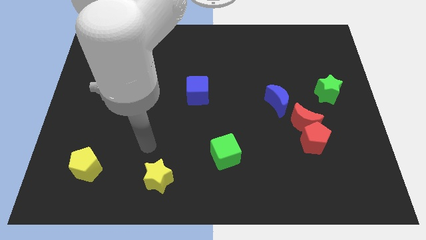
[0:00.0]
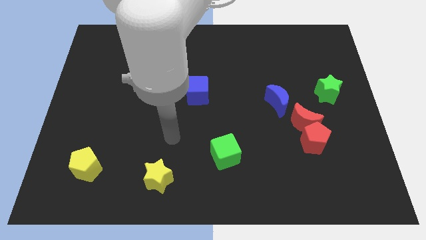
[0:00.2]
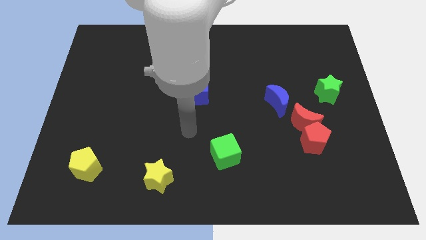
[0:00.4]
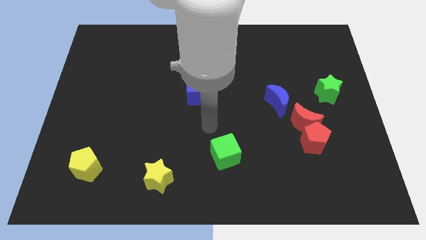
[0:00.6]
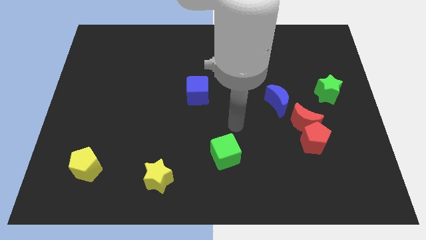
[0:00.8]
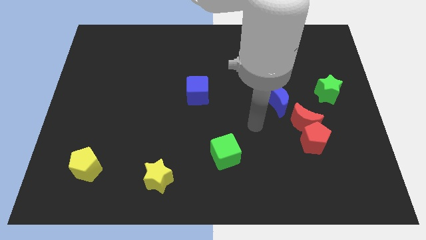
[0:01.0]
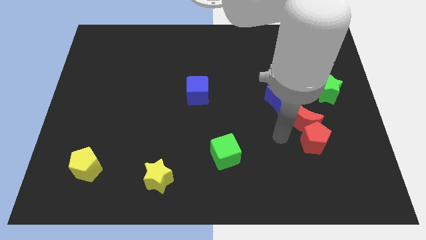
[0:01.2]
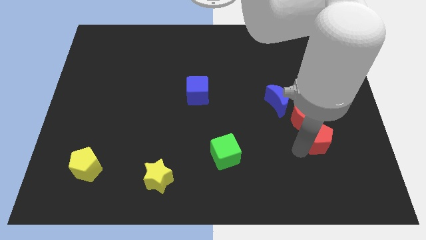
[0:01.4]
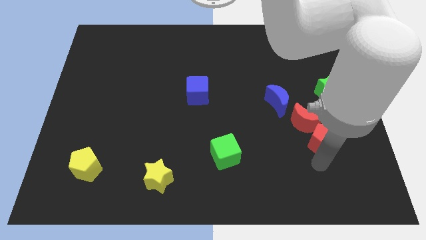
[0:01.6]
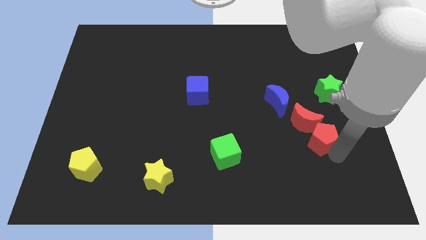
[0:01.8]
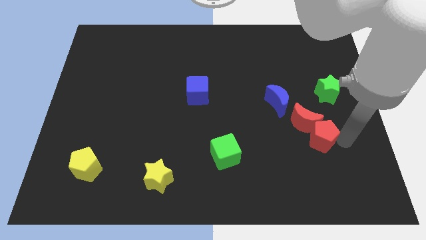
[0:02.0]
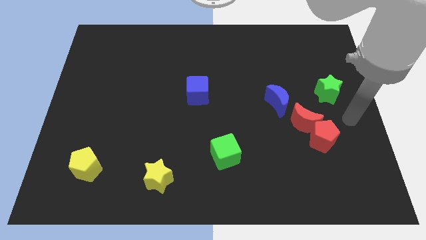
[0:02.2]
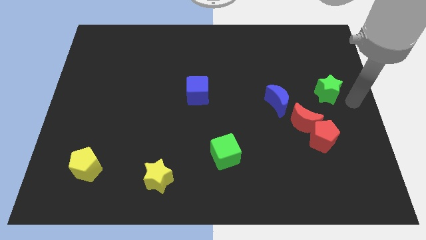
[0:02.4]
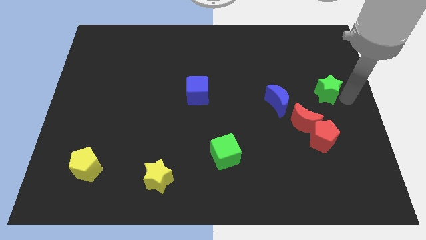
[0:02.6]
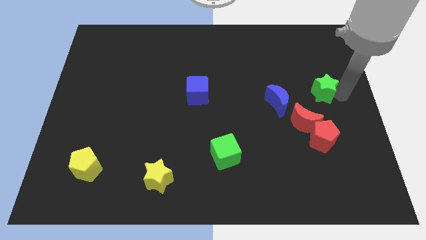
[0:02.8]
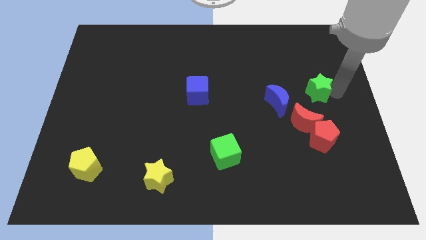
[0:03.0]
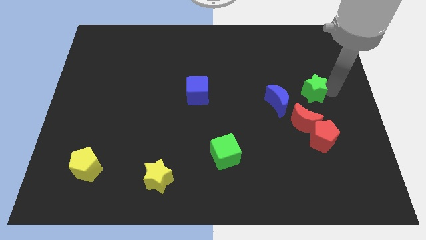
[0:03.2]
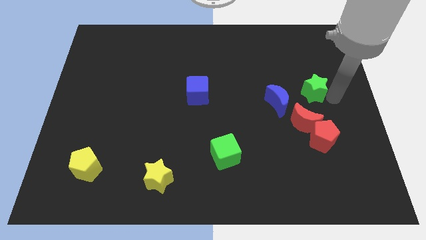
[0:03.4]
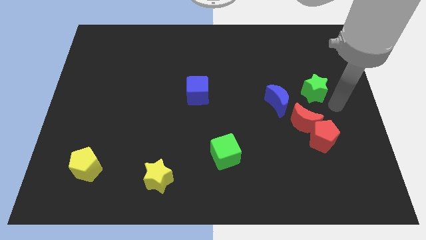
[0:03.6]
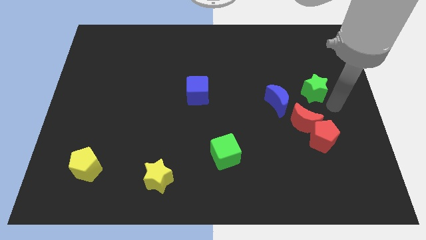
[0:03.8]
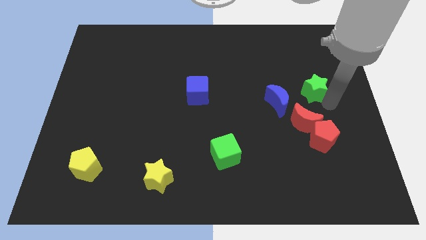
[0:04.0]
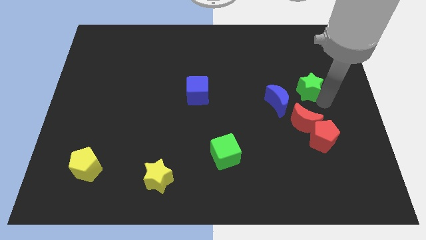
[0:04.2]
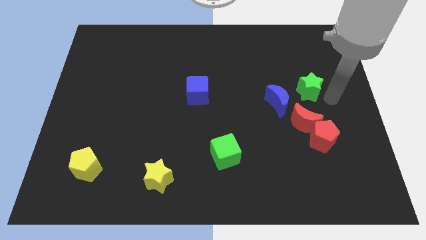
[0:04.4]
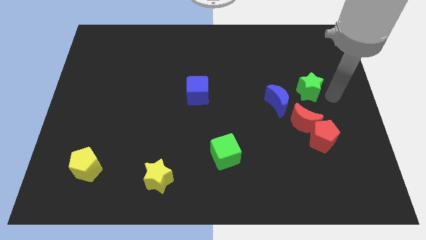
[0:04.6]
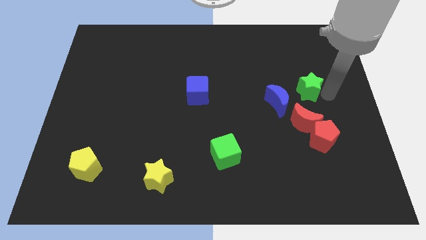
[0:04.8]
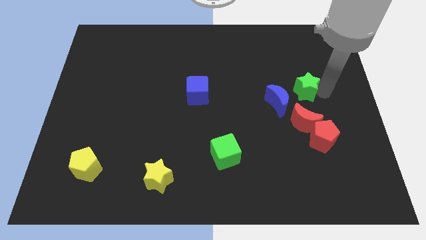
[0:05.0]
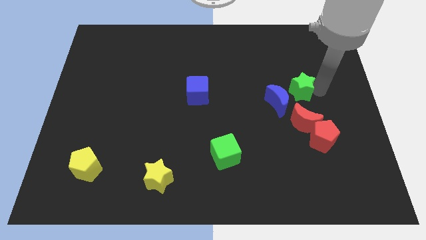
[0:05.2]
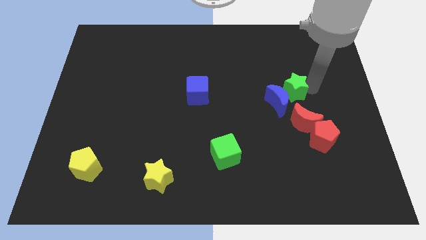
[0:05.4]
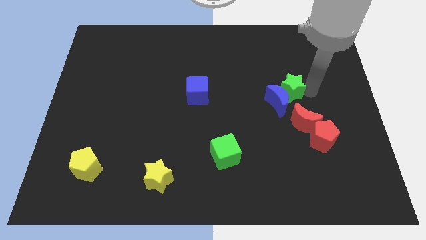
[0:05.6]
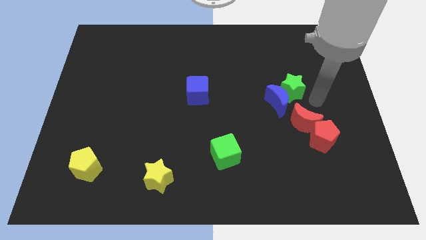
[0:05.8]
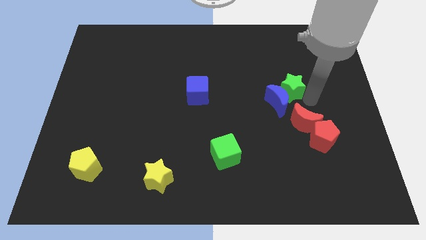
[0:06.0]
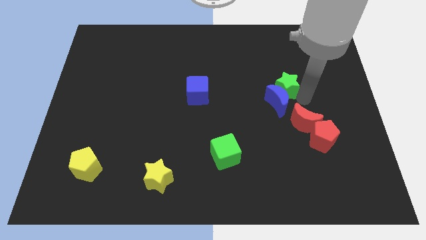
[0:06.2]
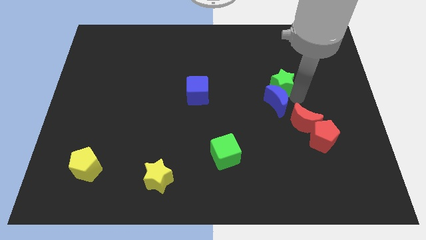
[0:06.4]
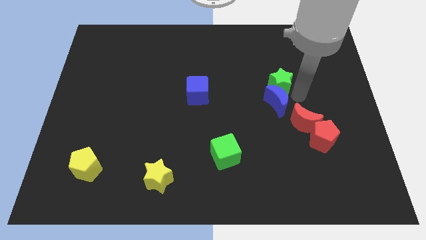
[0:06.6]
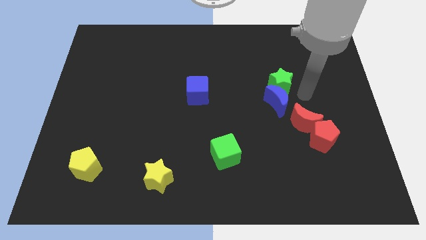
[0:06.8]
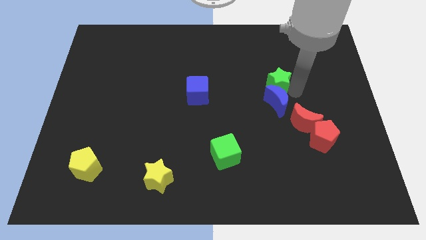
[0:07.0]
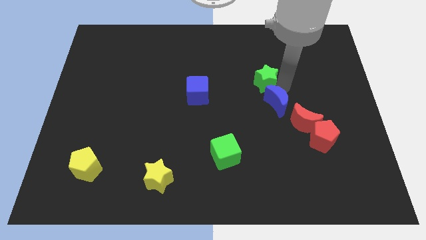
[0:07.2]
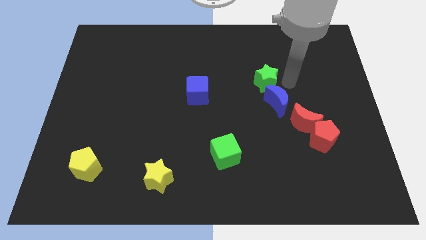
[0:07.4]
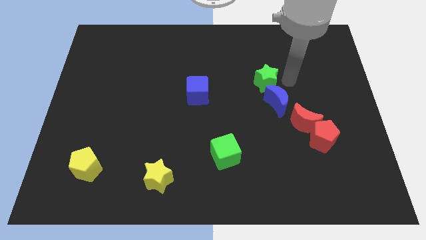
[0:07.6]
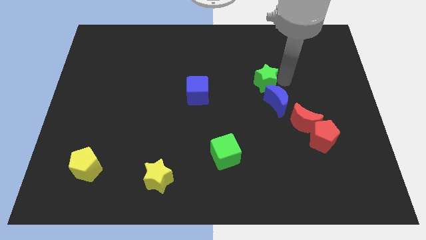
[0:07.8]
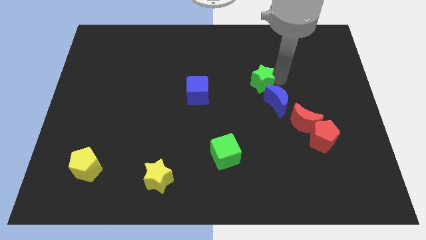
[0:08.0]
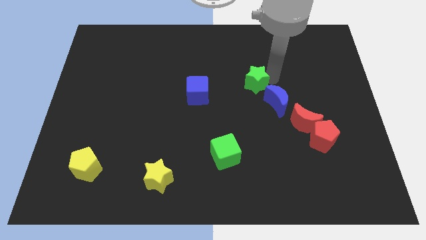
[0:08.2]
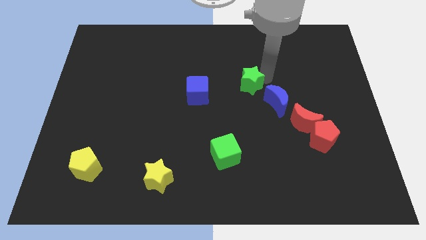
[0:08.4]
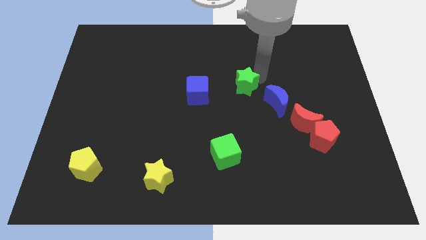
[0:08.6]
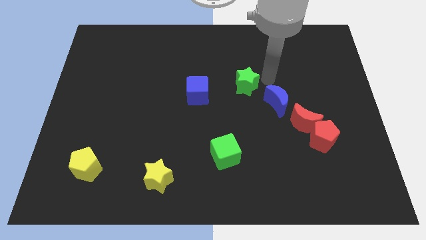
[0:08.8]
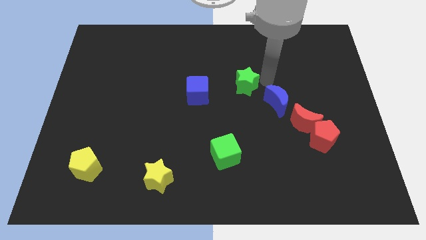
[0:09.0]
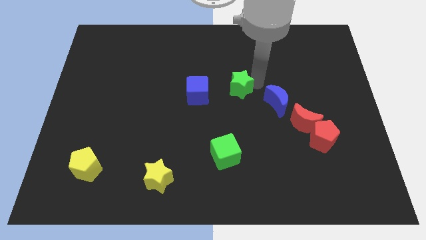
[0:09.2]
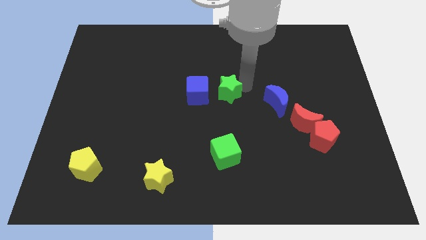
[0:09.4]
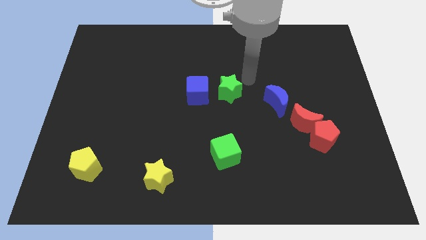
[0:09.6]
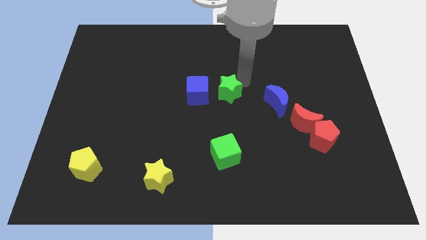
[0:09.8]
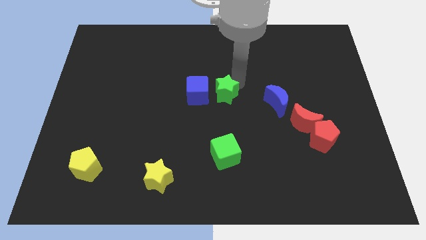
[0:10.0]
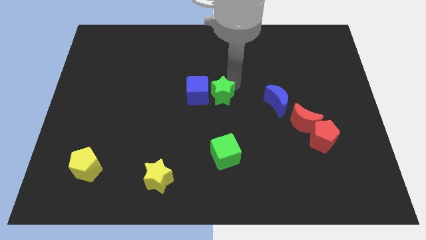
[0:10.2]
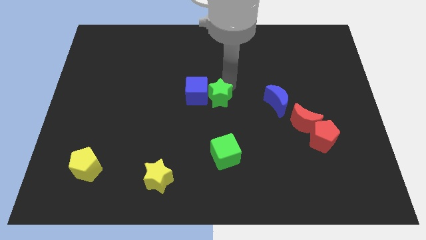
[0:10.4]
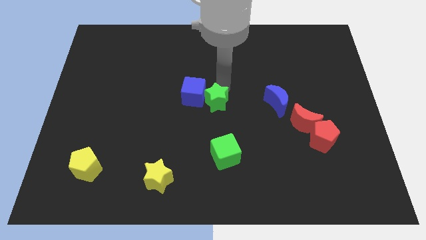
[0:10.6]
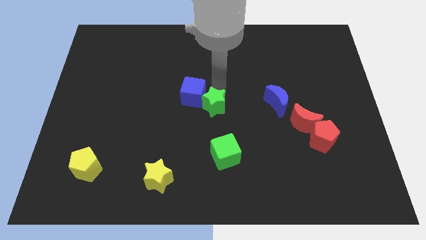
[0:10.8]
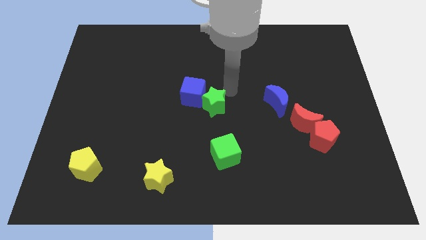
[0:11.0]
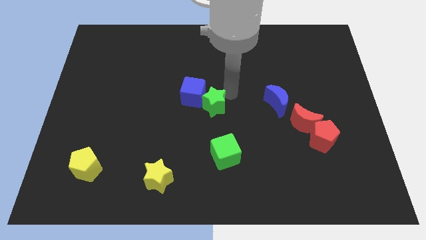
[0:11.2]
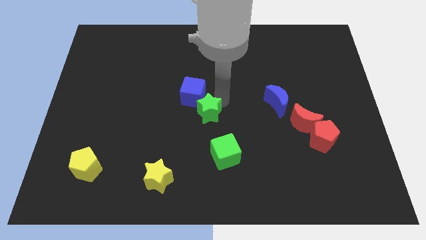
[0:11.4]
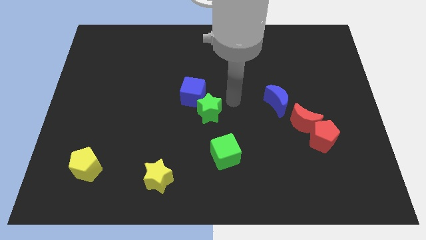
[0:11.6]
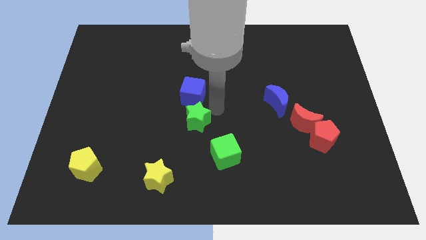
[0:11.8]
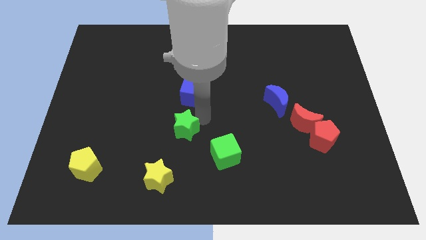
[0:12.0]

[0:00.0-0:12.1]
put the green star above the yellow star

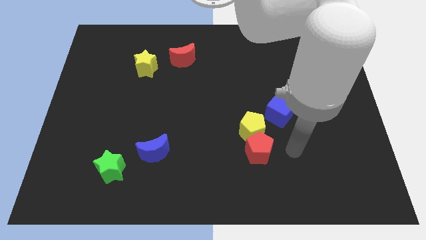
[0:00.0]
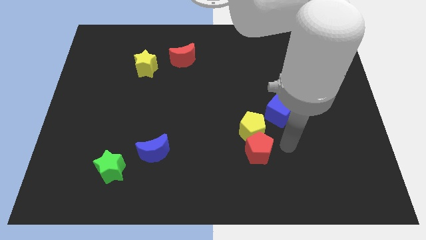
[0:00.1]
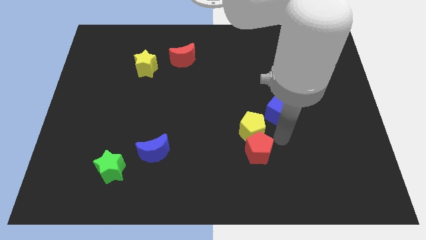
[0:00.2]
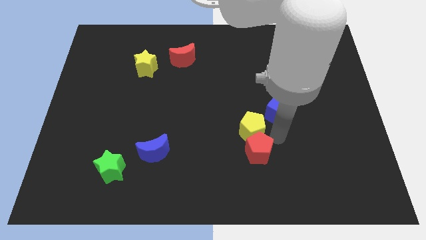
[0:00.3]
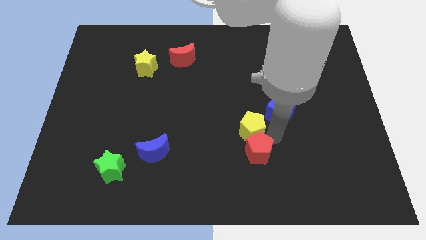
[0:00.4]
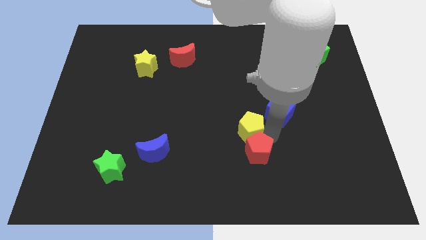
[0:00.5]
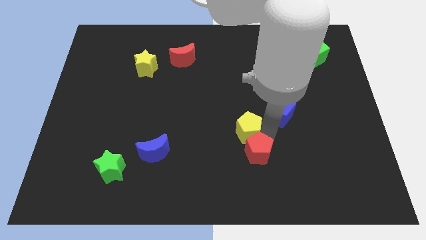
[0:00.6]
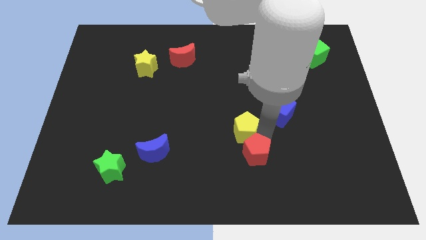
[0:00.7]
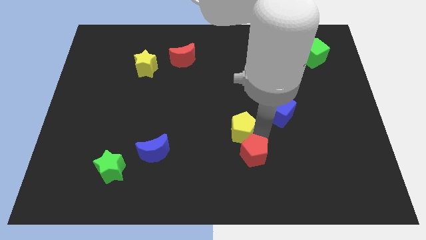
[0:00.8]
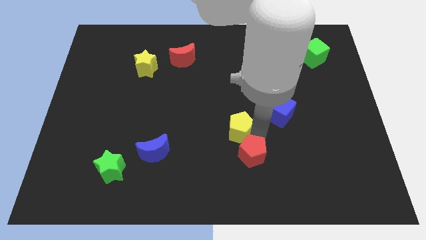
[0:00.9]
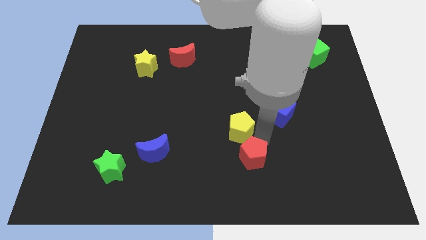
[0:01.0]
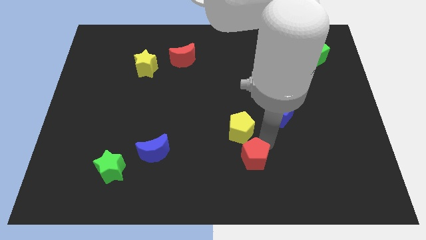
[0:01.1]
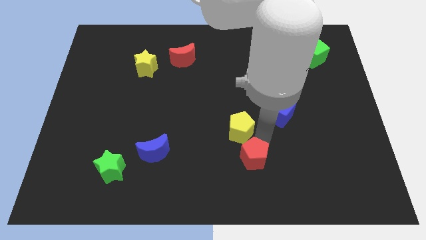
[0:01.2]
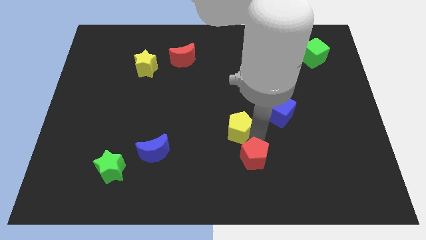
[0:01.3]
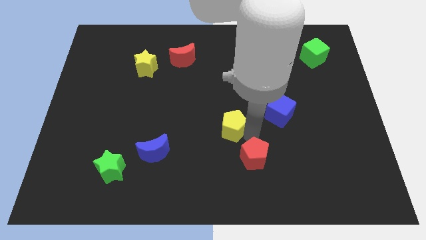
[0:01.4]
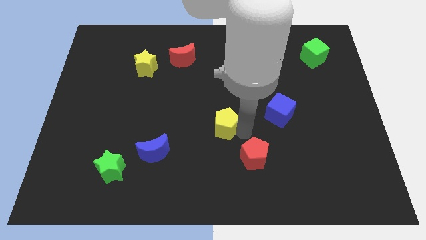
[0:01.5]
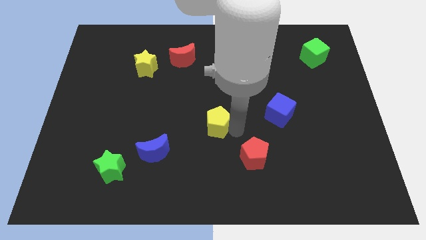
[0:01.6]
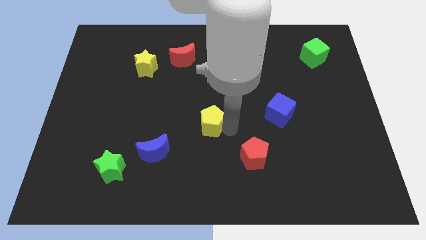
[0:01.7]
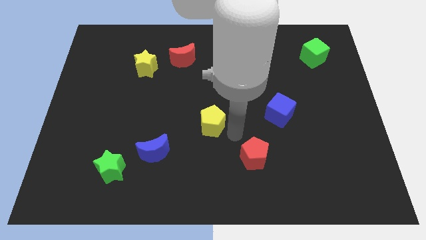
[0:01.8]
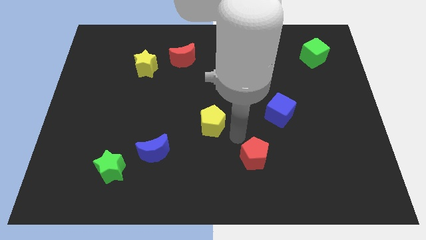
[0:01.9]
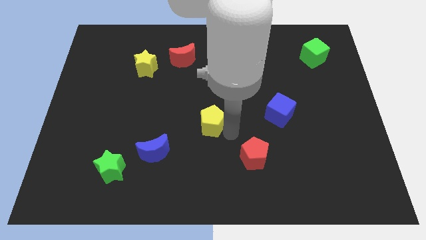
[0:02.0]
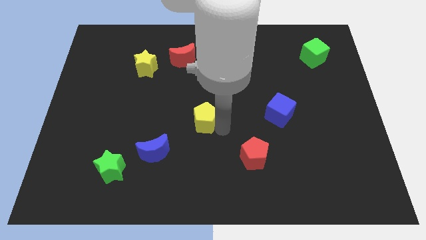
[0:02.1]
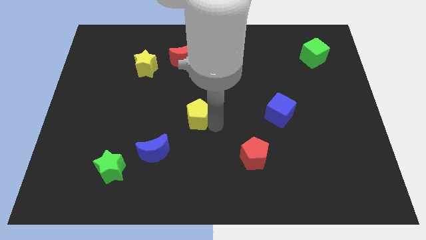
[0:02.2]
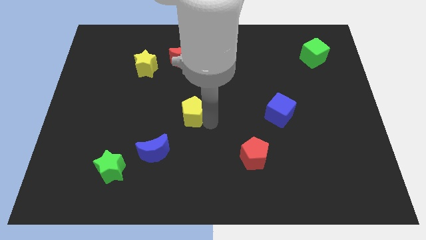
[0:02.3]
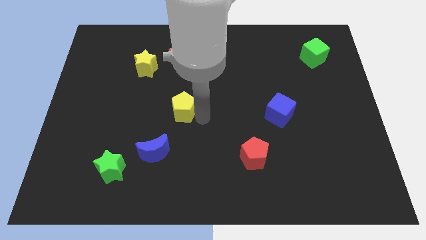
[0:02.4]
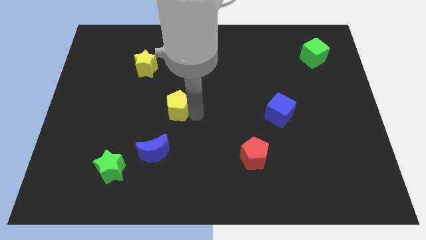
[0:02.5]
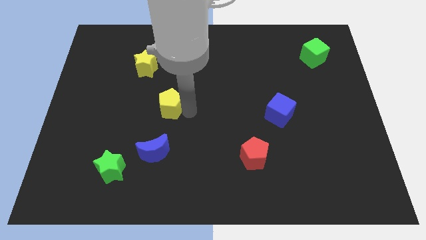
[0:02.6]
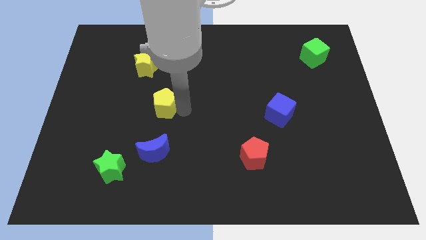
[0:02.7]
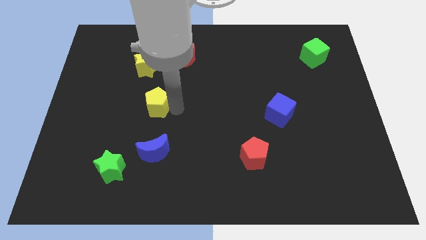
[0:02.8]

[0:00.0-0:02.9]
move the yellow pentagon to the bottom of the yellow star
